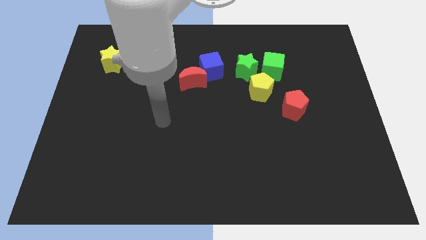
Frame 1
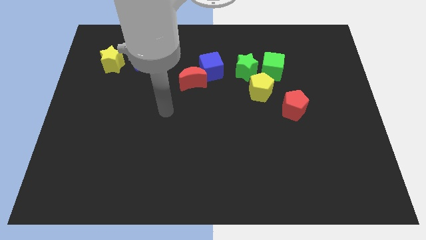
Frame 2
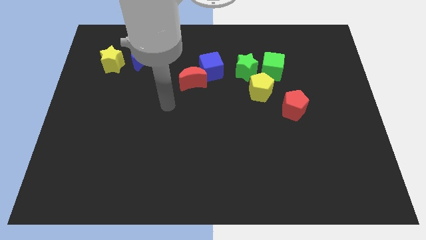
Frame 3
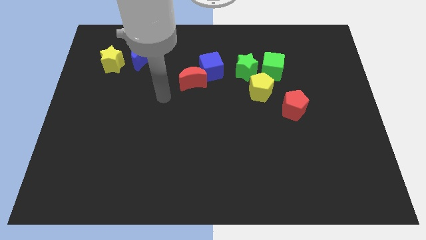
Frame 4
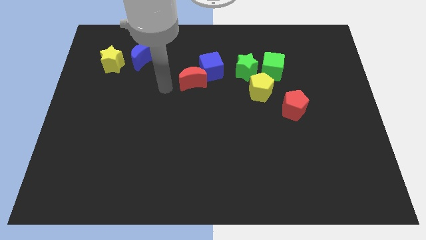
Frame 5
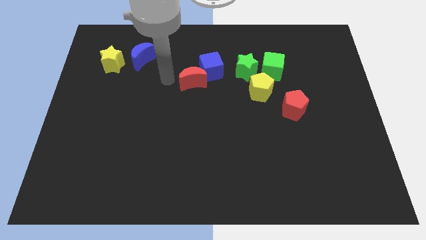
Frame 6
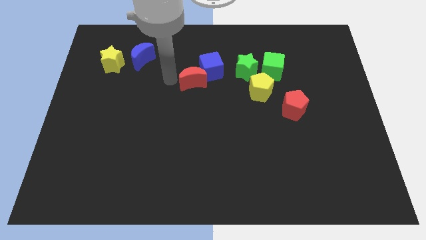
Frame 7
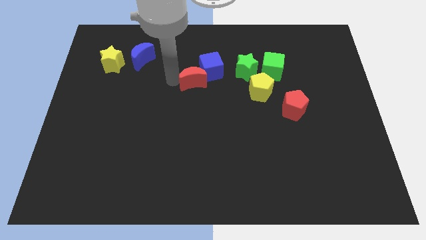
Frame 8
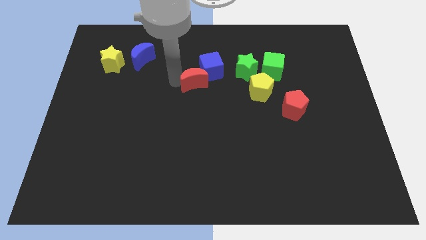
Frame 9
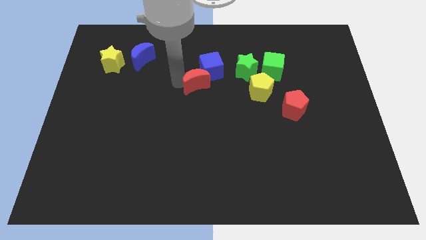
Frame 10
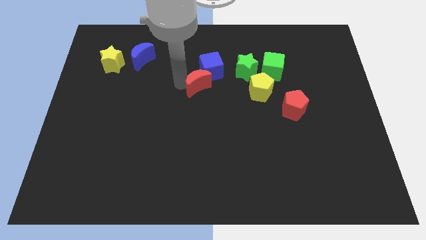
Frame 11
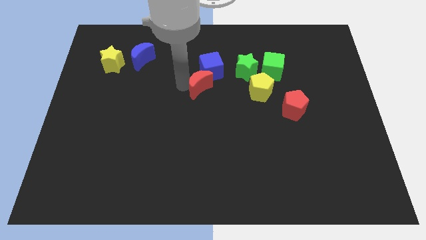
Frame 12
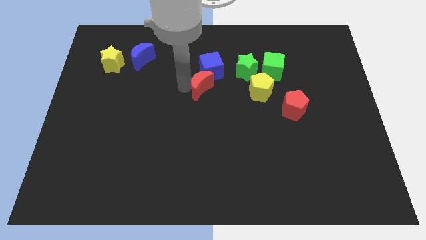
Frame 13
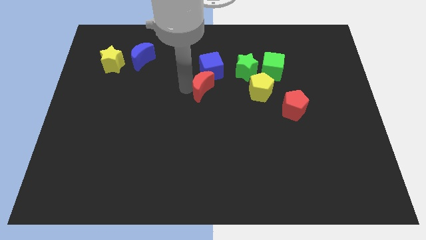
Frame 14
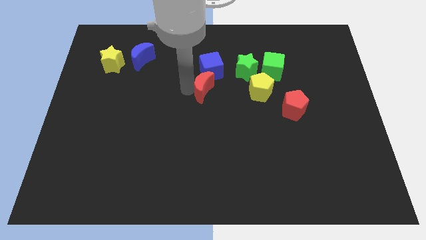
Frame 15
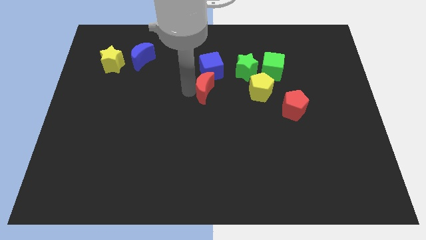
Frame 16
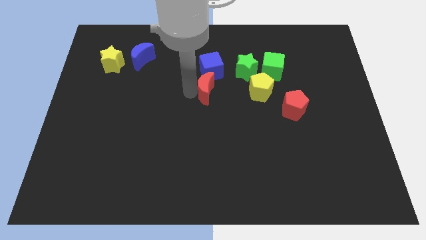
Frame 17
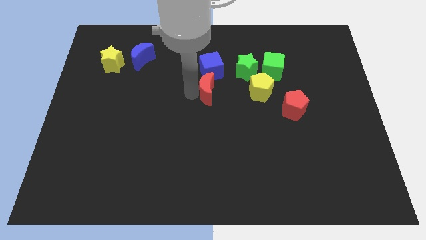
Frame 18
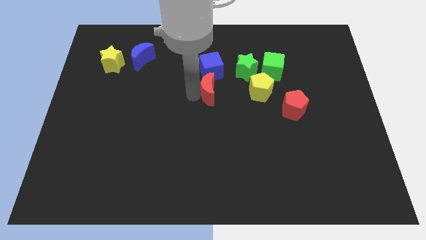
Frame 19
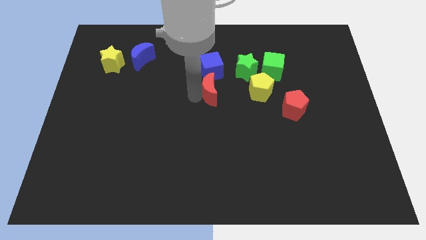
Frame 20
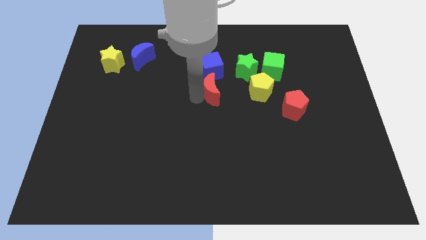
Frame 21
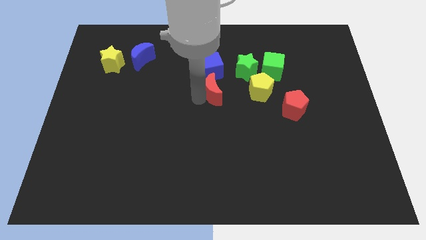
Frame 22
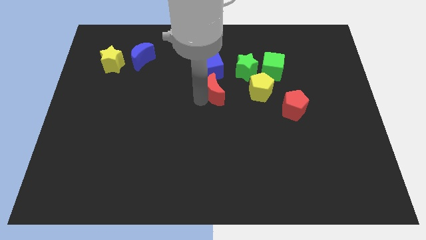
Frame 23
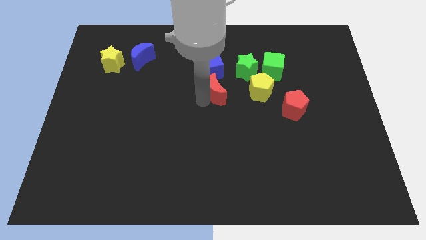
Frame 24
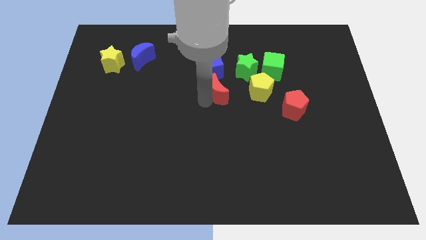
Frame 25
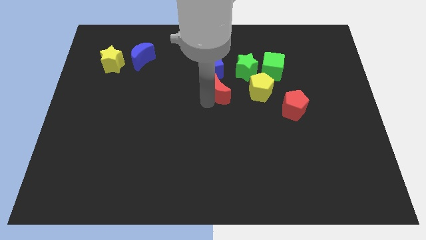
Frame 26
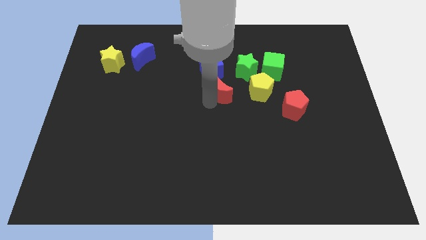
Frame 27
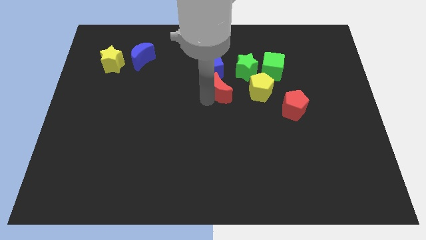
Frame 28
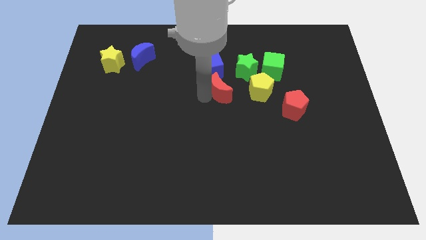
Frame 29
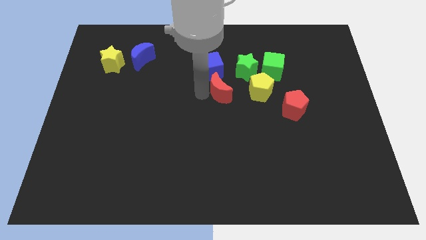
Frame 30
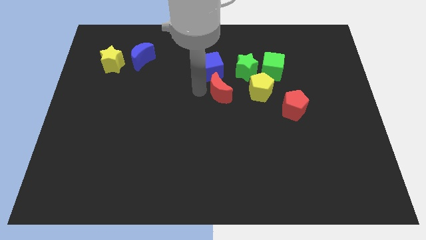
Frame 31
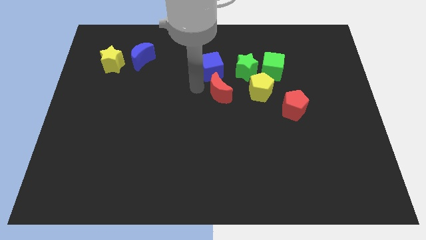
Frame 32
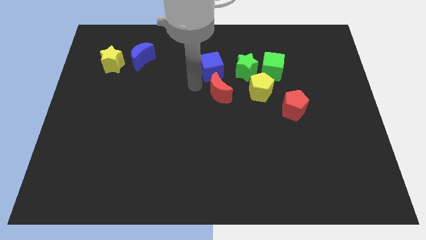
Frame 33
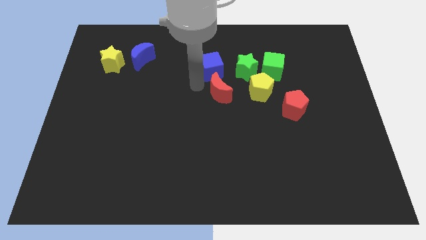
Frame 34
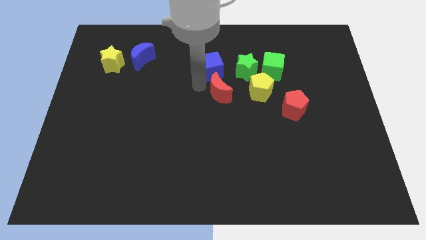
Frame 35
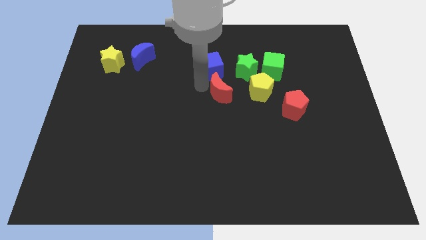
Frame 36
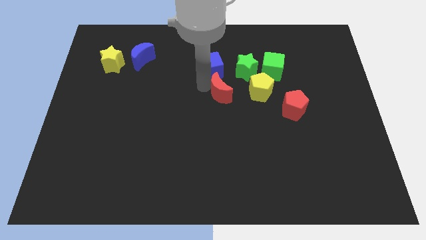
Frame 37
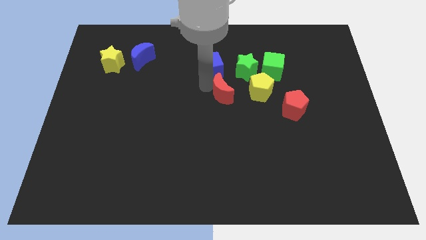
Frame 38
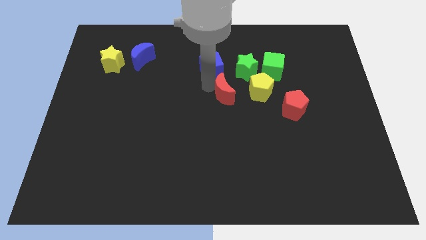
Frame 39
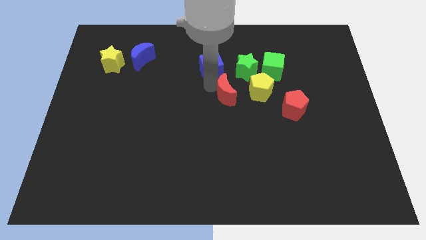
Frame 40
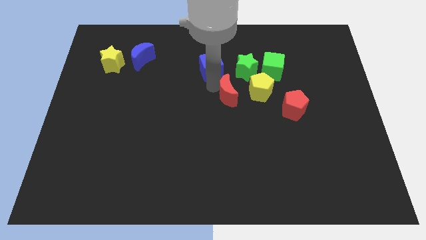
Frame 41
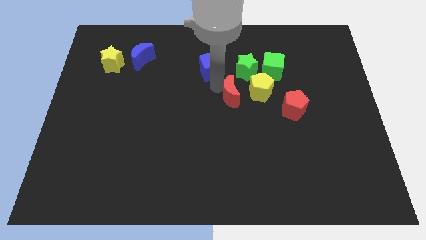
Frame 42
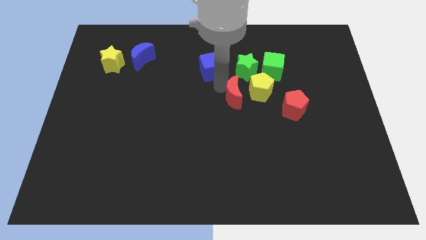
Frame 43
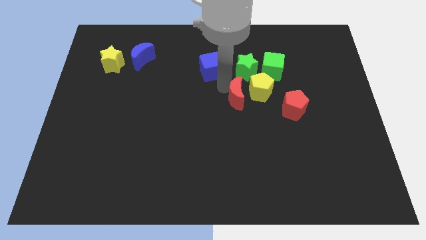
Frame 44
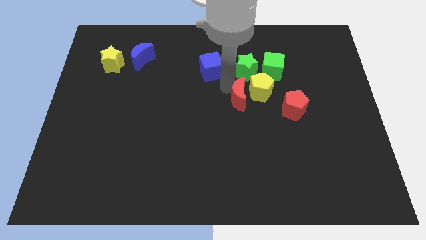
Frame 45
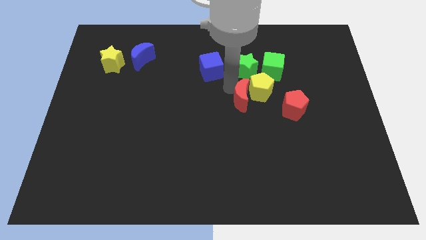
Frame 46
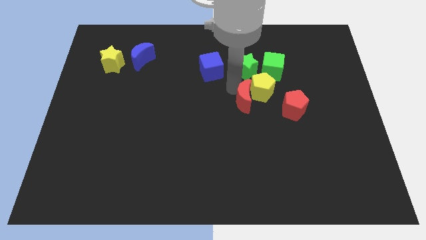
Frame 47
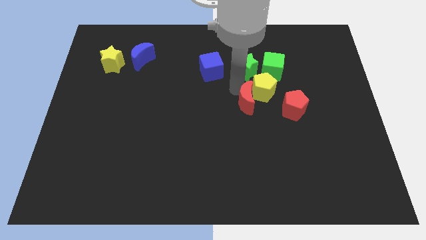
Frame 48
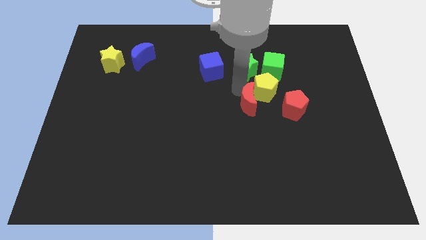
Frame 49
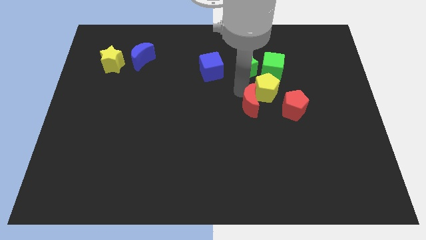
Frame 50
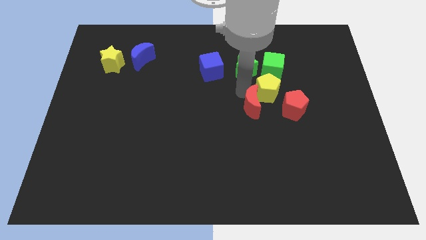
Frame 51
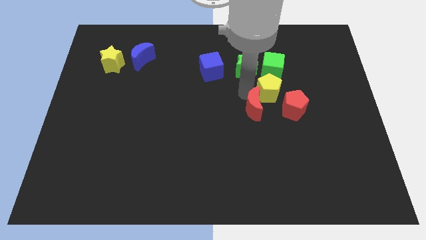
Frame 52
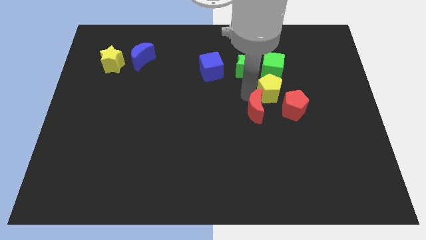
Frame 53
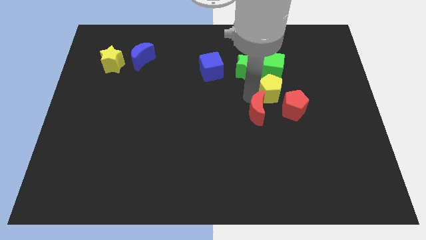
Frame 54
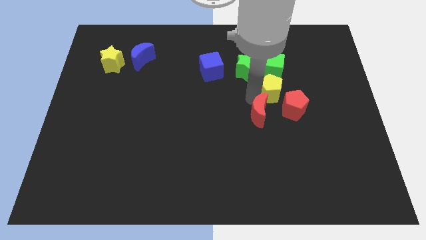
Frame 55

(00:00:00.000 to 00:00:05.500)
move the red moon to the bottom left of the red pentagon

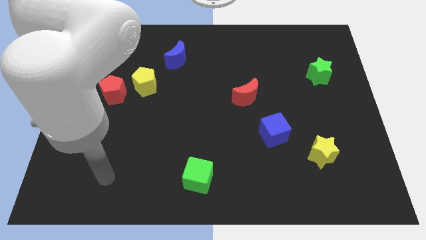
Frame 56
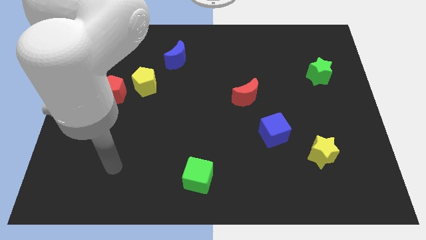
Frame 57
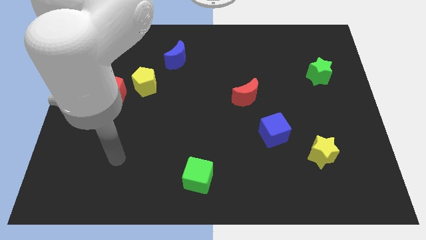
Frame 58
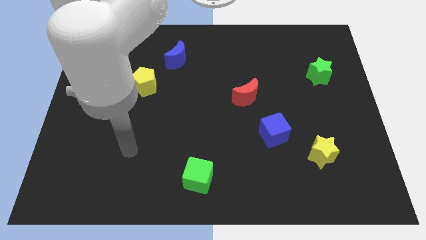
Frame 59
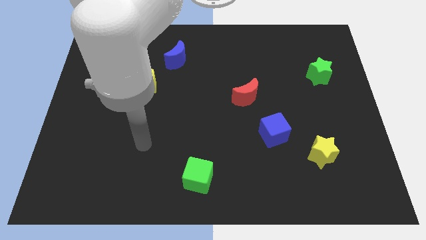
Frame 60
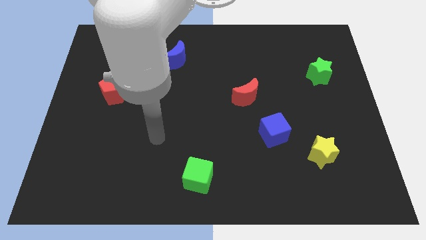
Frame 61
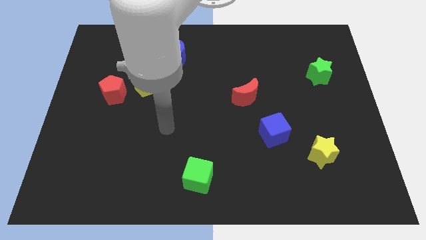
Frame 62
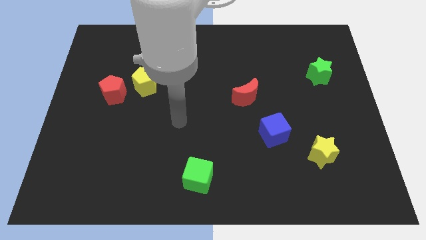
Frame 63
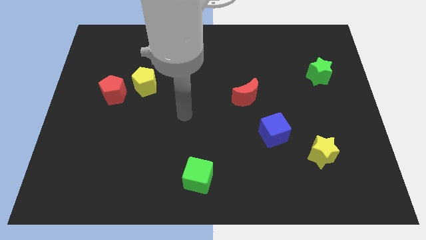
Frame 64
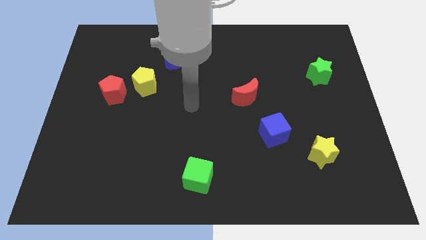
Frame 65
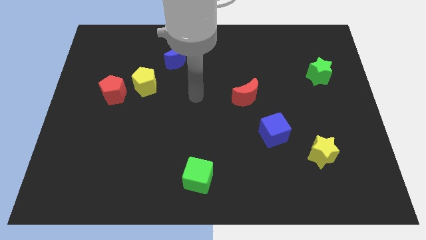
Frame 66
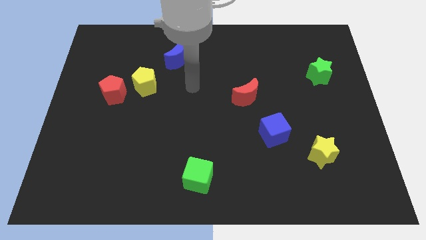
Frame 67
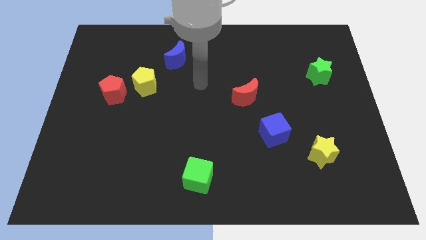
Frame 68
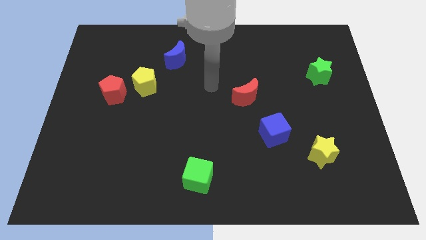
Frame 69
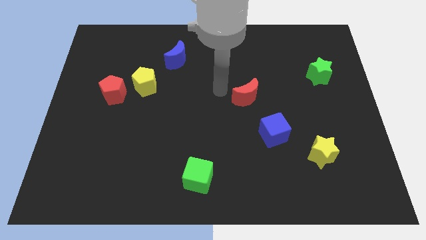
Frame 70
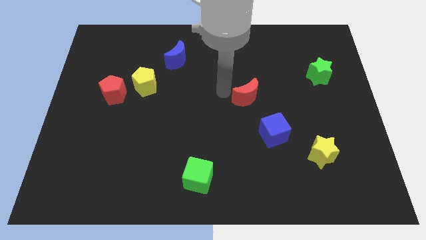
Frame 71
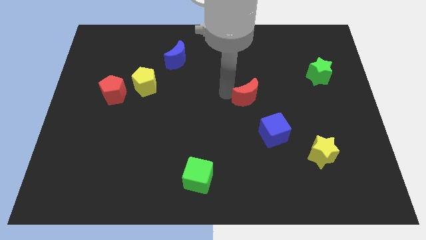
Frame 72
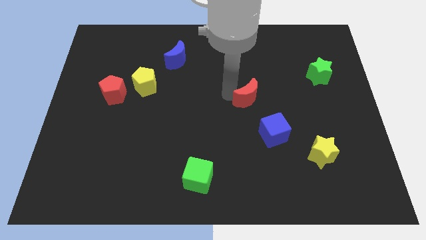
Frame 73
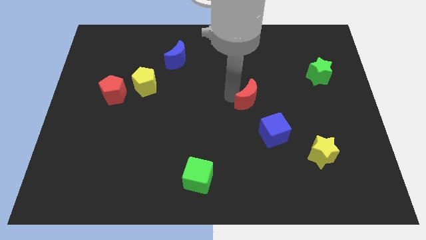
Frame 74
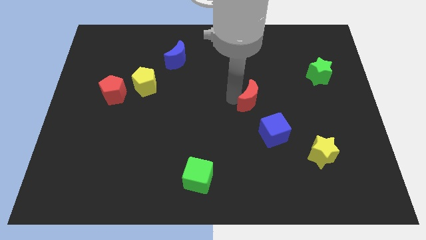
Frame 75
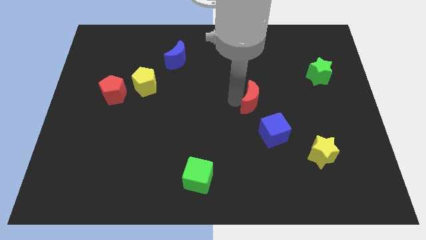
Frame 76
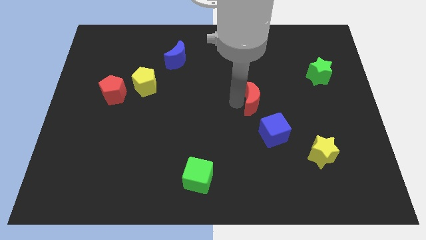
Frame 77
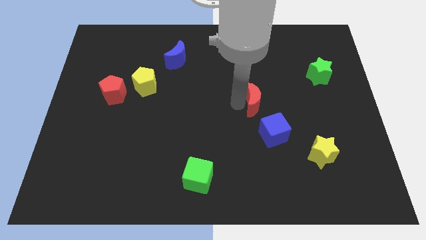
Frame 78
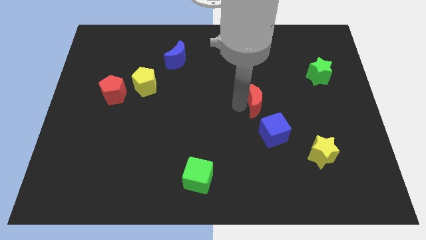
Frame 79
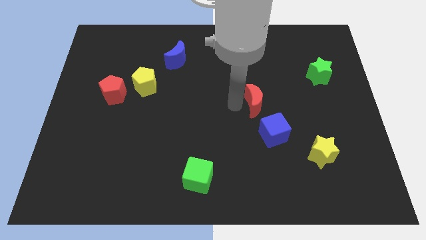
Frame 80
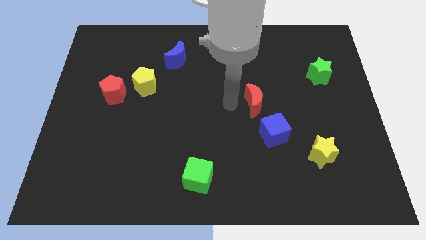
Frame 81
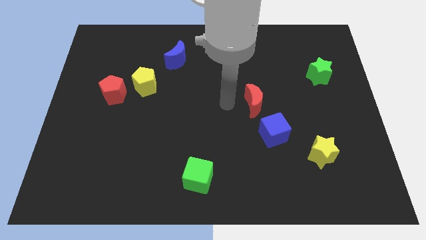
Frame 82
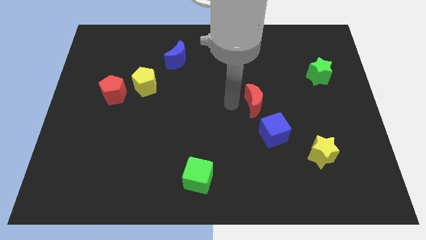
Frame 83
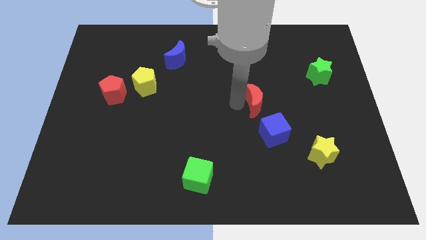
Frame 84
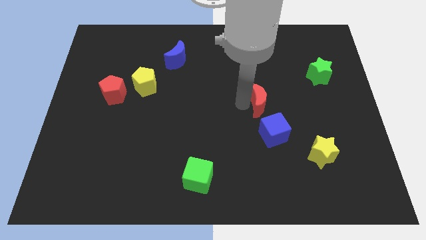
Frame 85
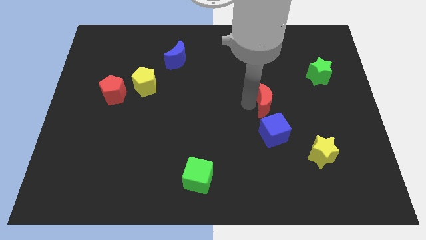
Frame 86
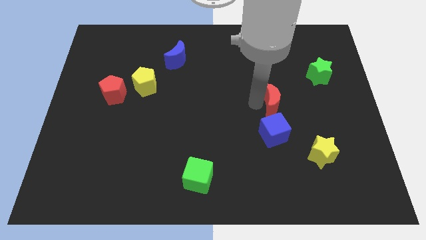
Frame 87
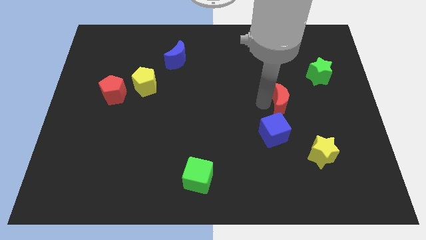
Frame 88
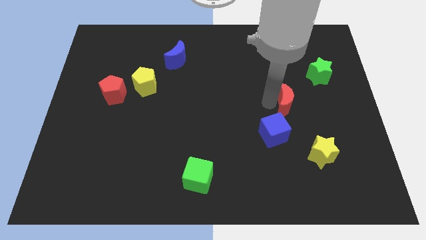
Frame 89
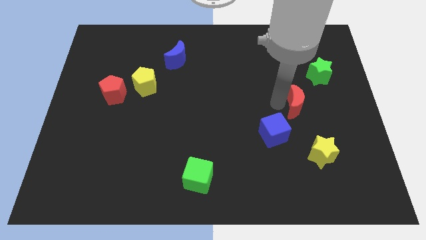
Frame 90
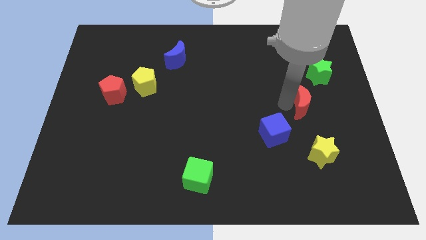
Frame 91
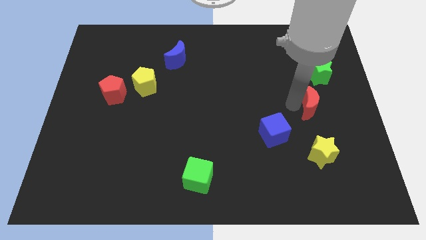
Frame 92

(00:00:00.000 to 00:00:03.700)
move the red moon to the bottom side of the green star
